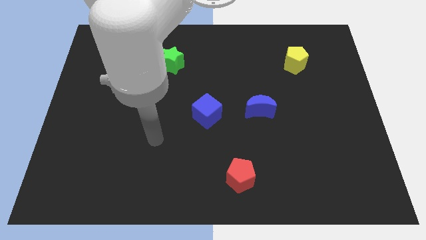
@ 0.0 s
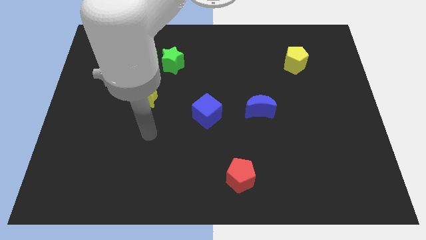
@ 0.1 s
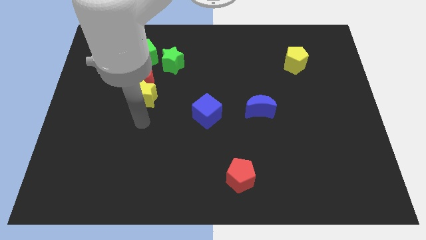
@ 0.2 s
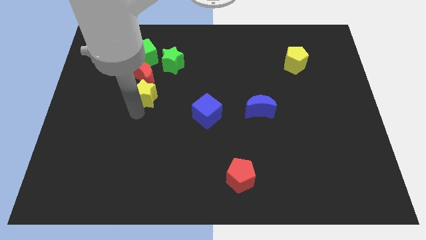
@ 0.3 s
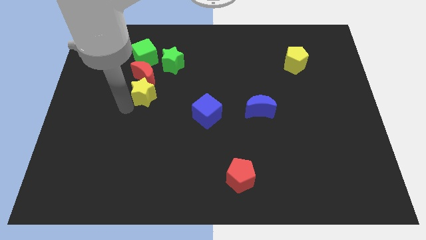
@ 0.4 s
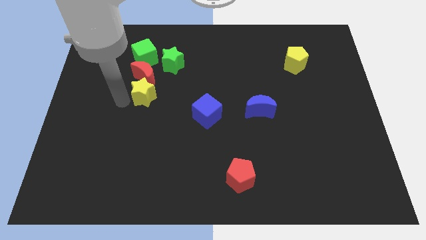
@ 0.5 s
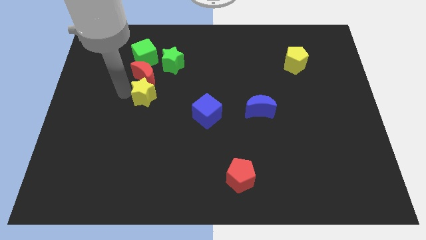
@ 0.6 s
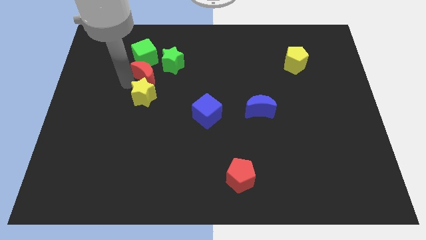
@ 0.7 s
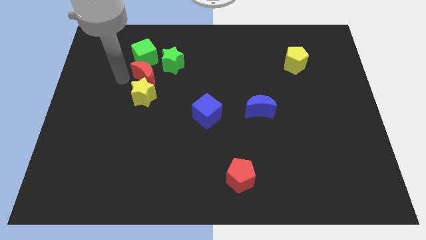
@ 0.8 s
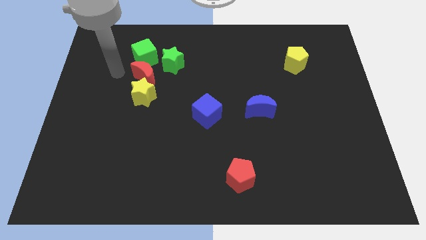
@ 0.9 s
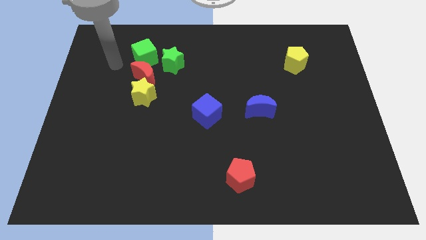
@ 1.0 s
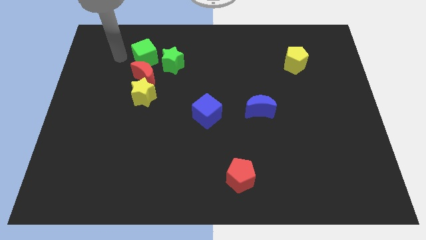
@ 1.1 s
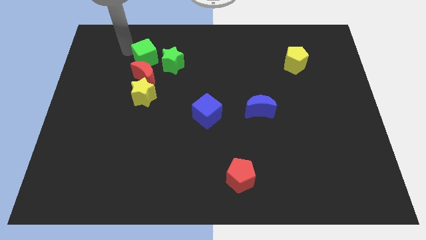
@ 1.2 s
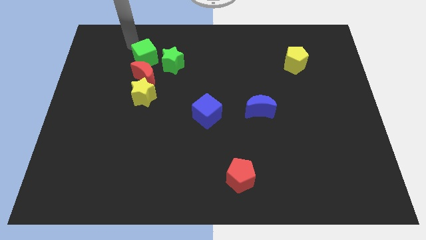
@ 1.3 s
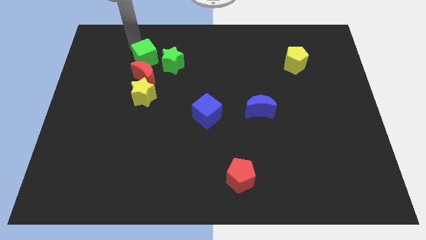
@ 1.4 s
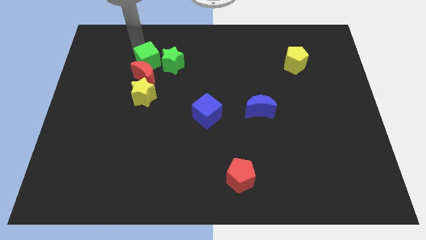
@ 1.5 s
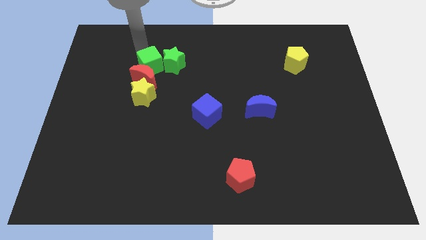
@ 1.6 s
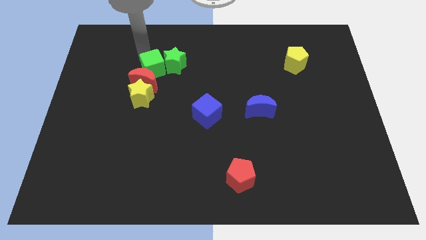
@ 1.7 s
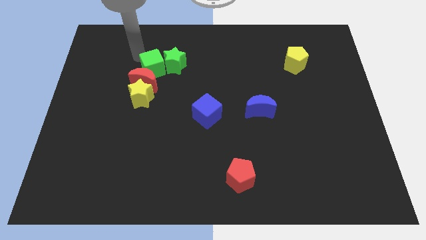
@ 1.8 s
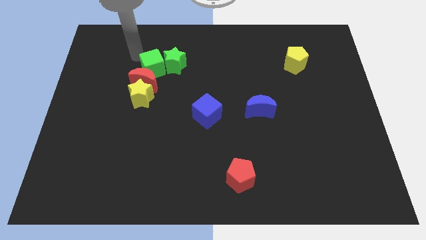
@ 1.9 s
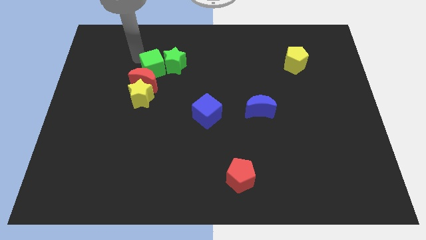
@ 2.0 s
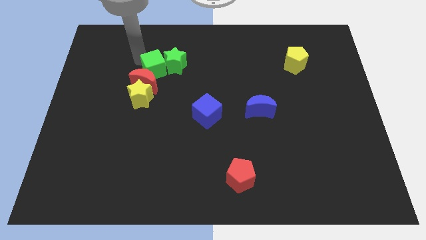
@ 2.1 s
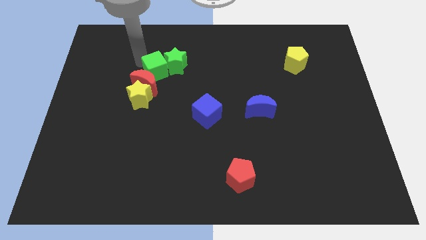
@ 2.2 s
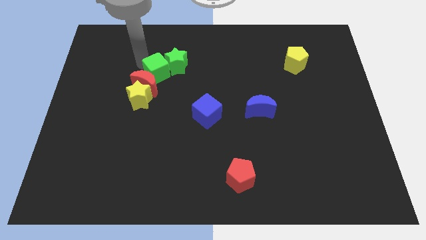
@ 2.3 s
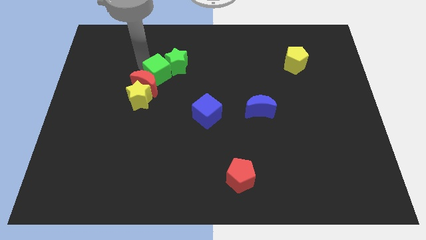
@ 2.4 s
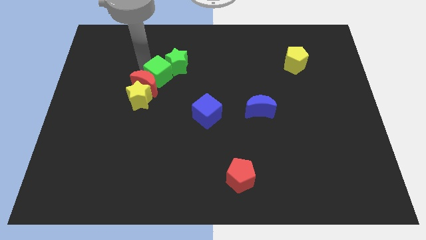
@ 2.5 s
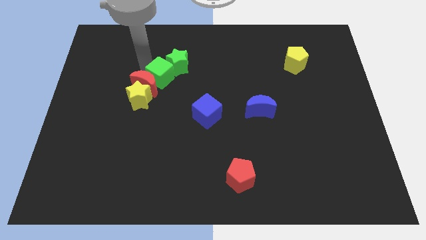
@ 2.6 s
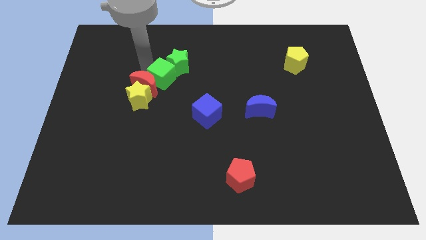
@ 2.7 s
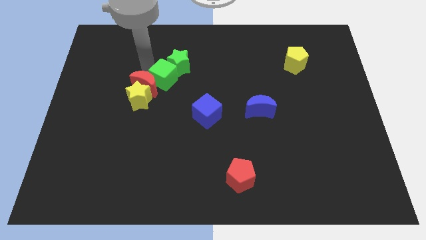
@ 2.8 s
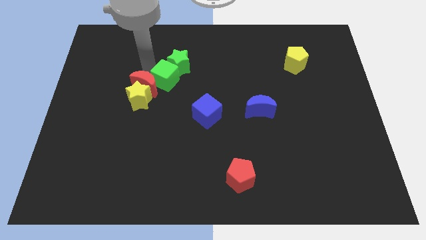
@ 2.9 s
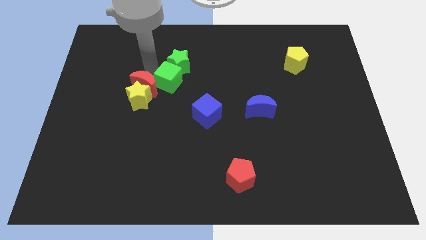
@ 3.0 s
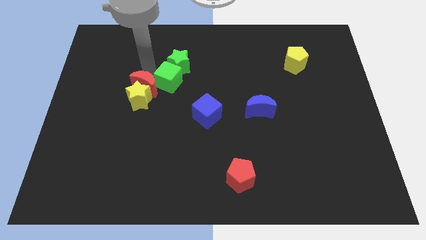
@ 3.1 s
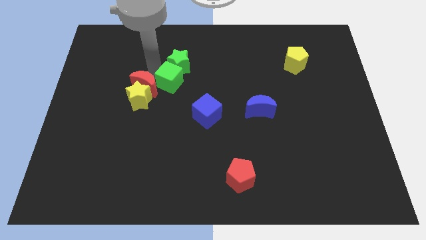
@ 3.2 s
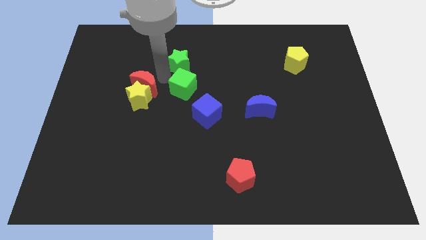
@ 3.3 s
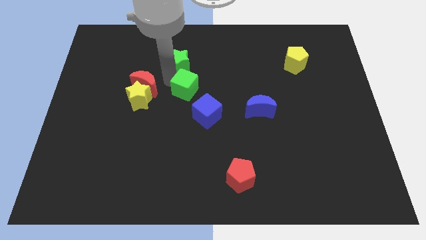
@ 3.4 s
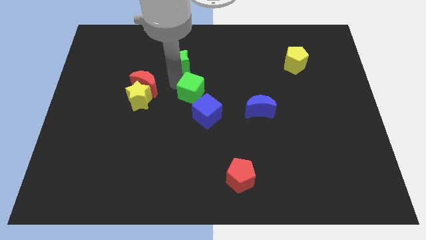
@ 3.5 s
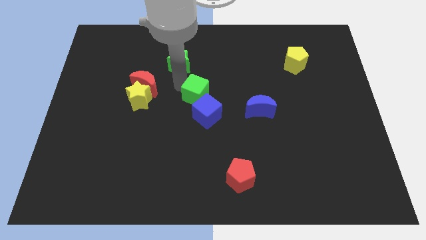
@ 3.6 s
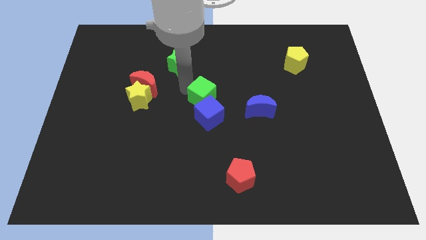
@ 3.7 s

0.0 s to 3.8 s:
slide the green cube downwards and then right

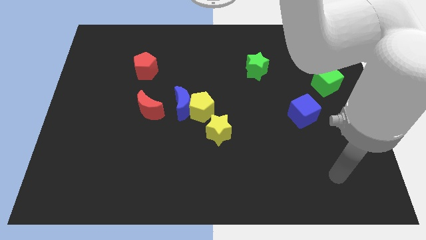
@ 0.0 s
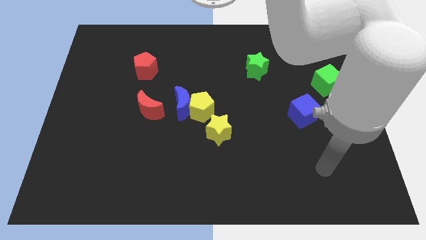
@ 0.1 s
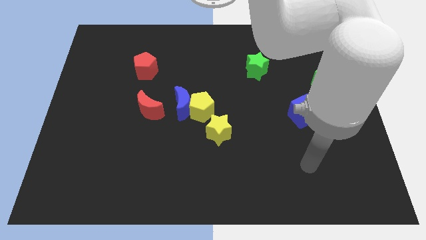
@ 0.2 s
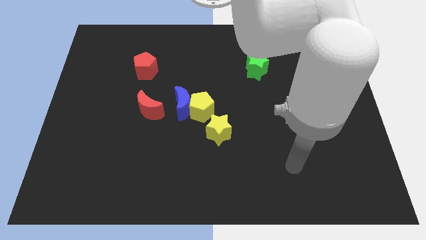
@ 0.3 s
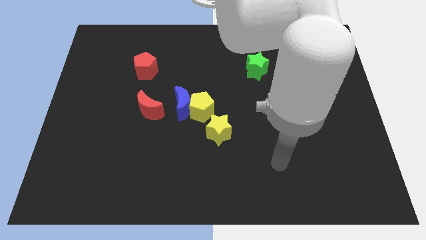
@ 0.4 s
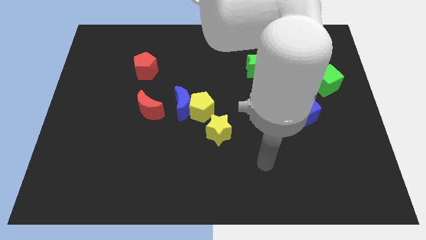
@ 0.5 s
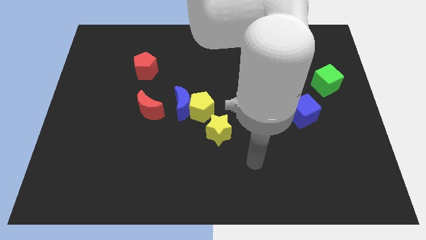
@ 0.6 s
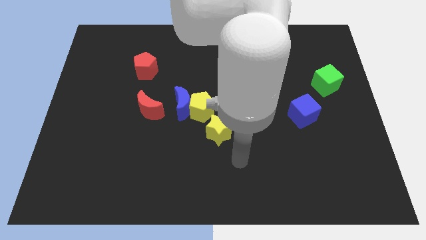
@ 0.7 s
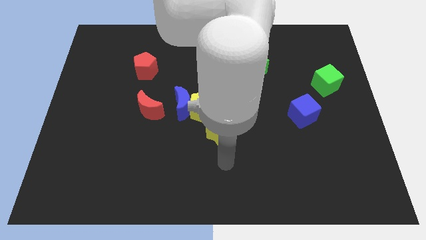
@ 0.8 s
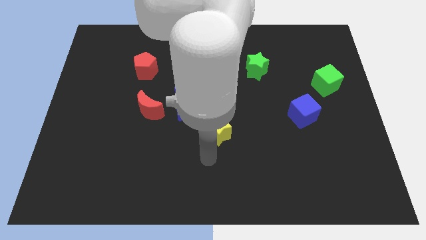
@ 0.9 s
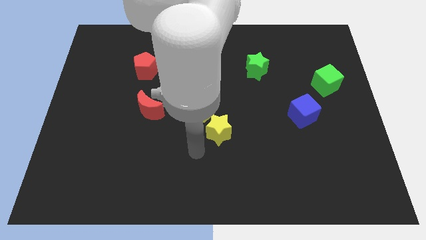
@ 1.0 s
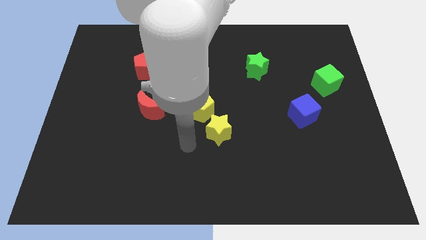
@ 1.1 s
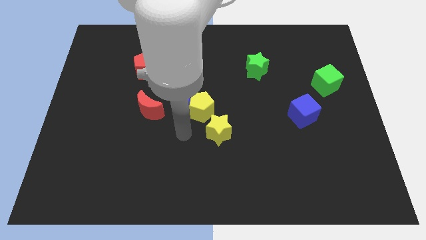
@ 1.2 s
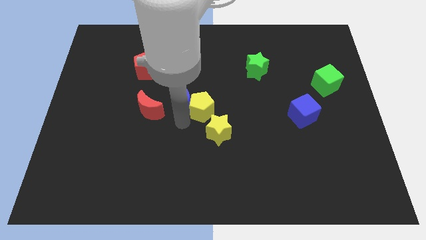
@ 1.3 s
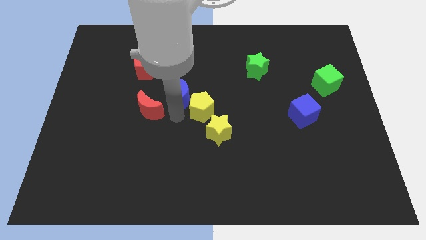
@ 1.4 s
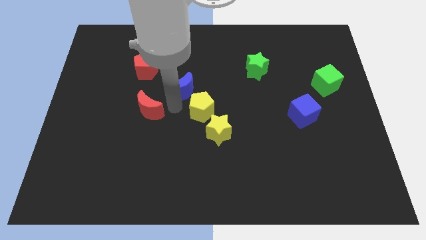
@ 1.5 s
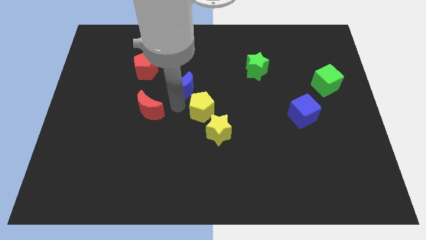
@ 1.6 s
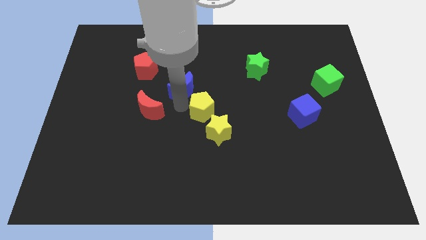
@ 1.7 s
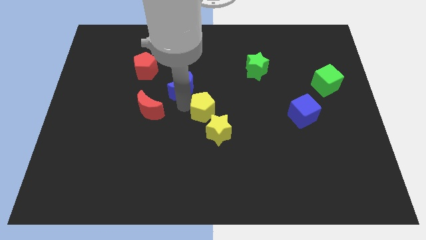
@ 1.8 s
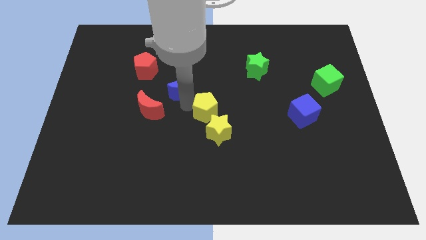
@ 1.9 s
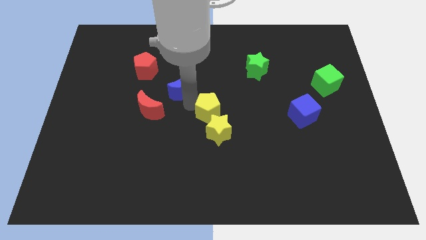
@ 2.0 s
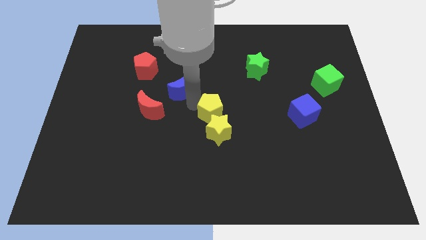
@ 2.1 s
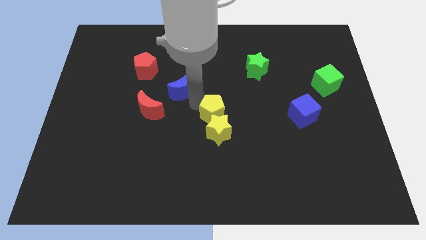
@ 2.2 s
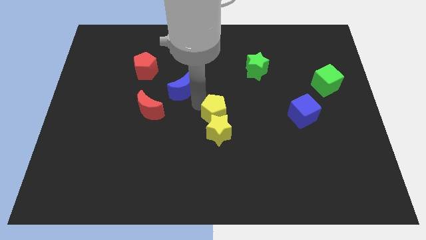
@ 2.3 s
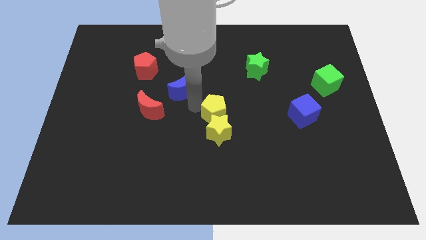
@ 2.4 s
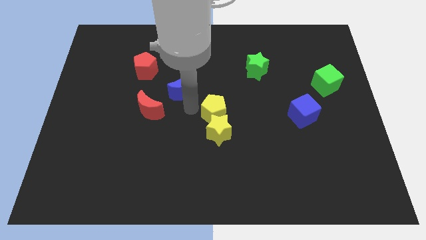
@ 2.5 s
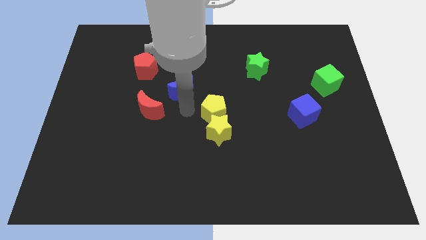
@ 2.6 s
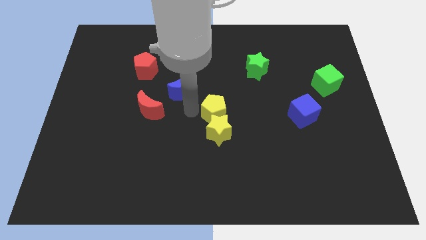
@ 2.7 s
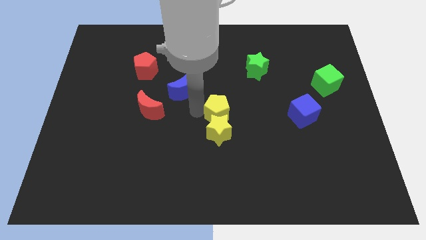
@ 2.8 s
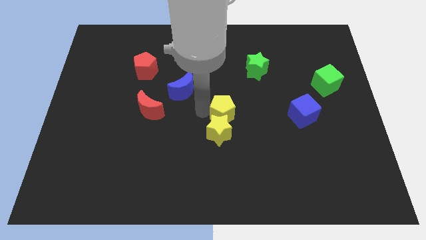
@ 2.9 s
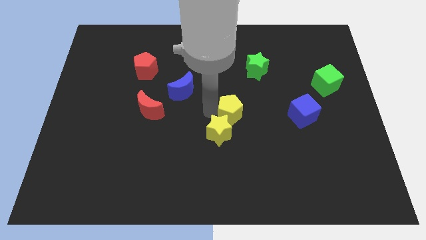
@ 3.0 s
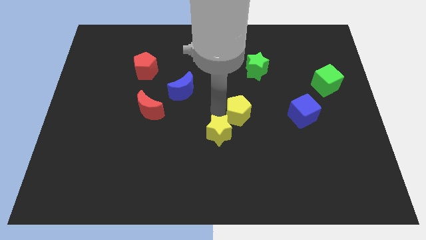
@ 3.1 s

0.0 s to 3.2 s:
push the yellow pentagon a little right

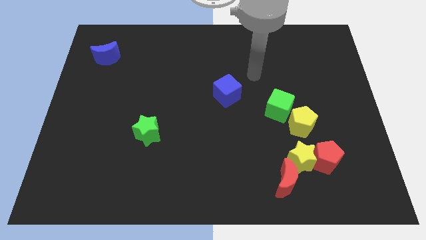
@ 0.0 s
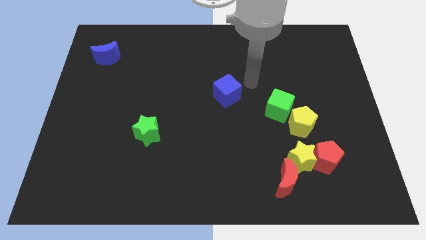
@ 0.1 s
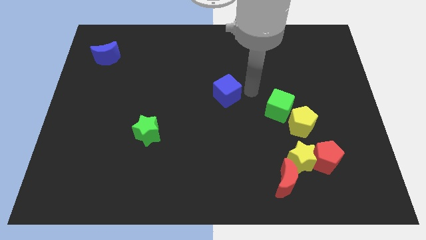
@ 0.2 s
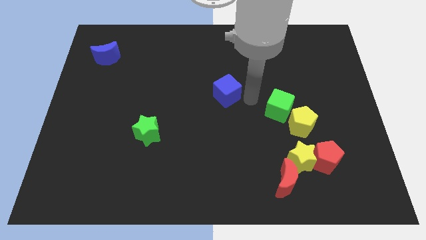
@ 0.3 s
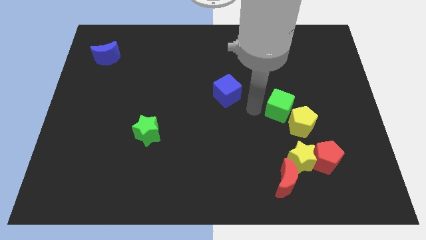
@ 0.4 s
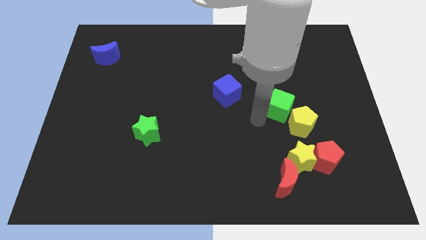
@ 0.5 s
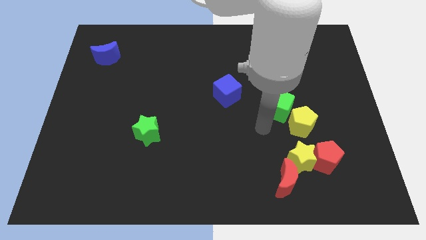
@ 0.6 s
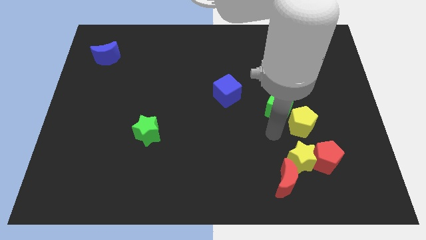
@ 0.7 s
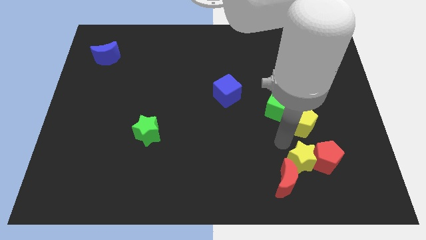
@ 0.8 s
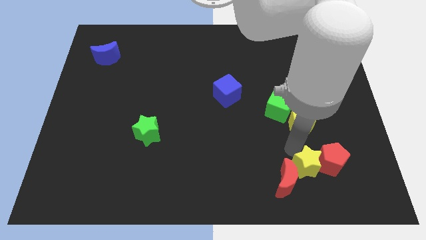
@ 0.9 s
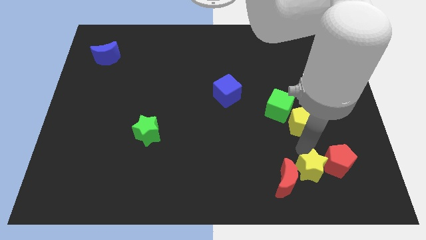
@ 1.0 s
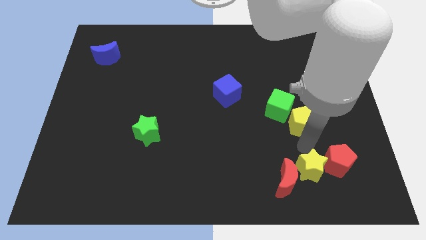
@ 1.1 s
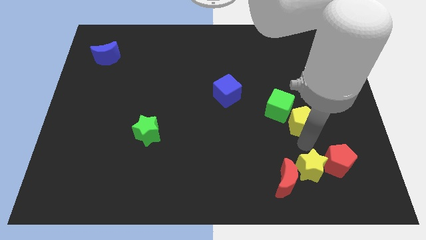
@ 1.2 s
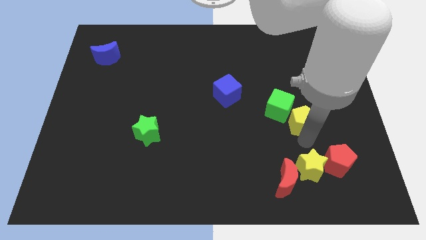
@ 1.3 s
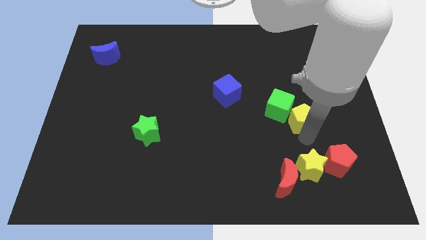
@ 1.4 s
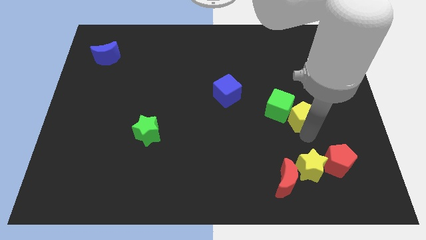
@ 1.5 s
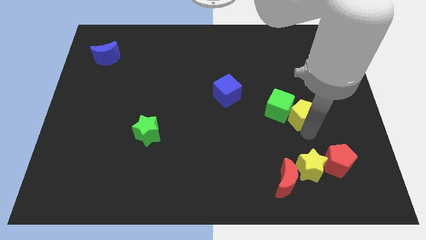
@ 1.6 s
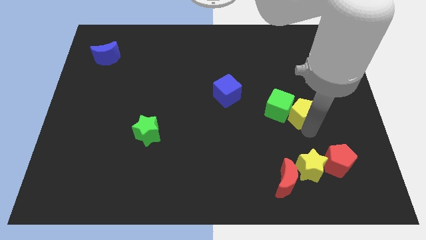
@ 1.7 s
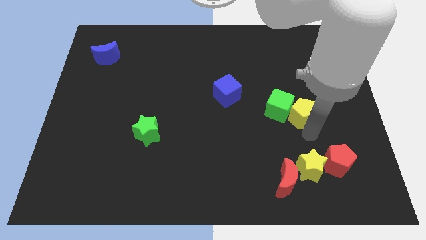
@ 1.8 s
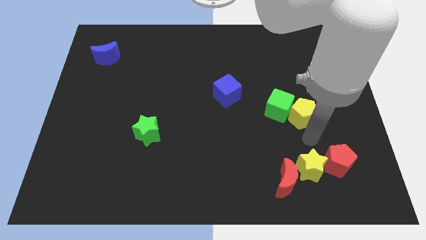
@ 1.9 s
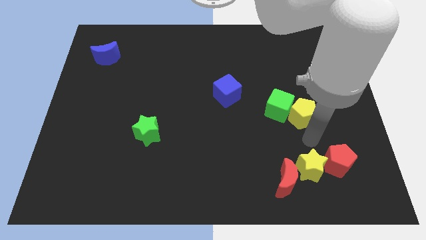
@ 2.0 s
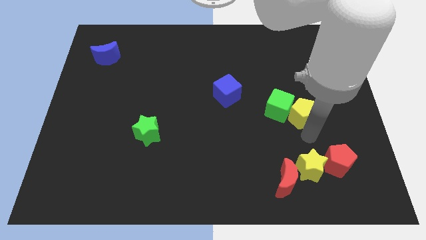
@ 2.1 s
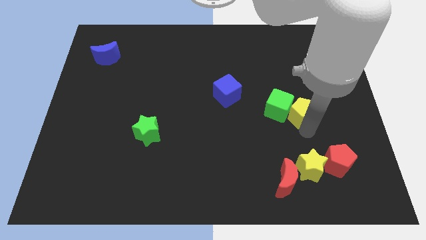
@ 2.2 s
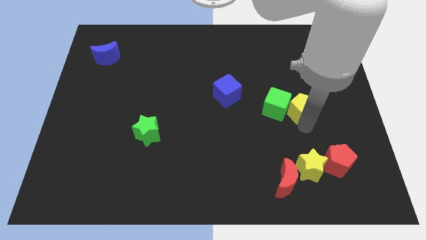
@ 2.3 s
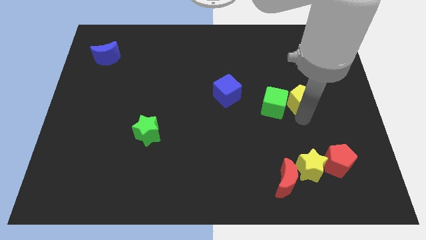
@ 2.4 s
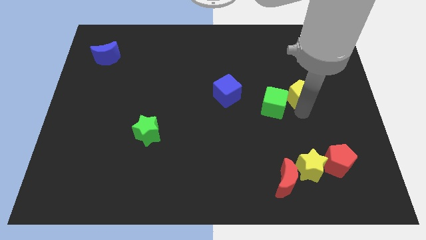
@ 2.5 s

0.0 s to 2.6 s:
slightly push the yellow pentagon up
